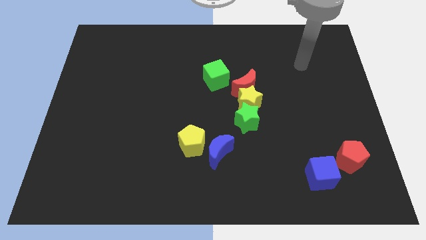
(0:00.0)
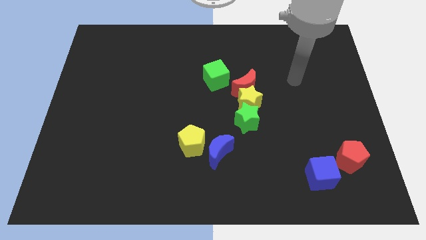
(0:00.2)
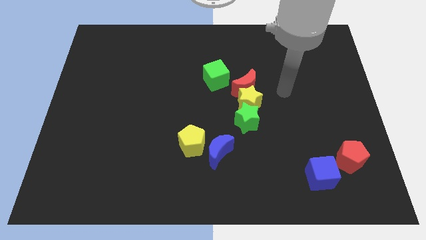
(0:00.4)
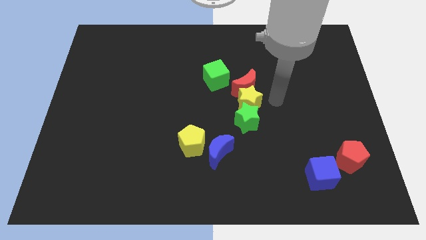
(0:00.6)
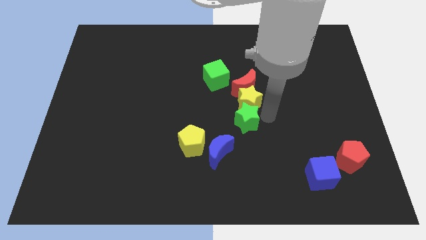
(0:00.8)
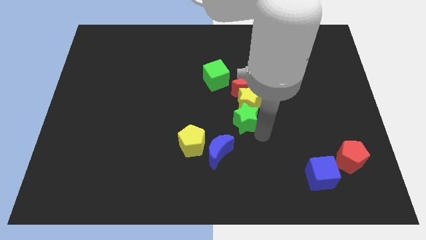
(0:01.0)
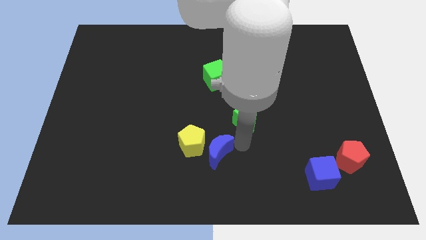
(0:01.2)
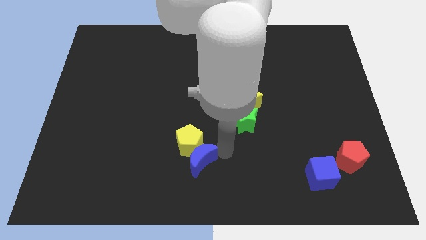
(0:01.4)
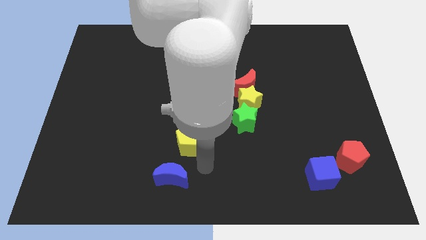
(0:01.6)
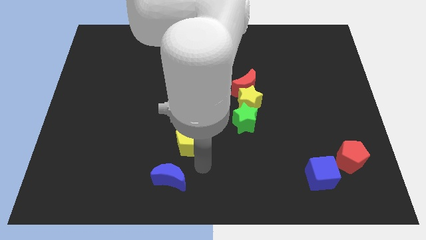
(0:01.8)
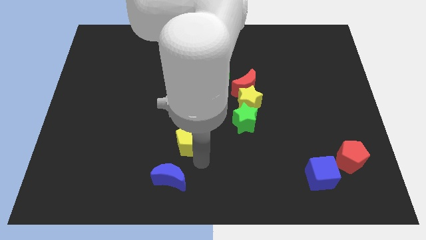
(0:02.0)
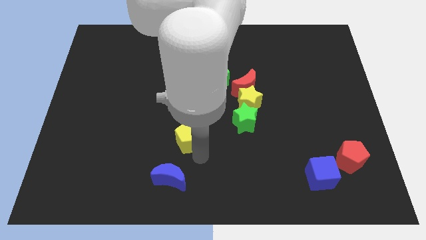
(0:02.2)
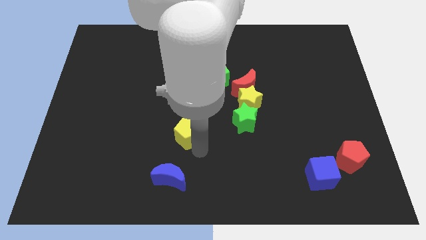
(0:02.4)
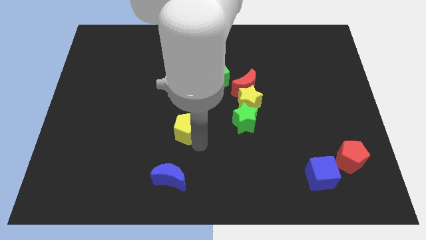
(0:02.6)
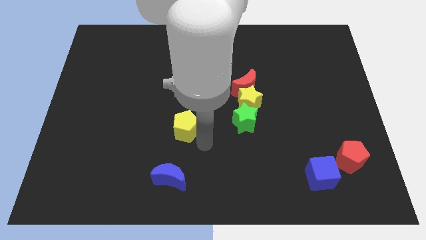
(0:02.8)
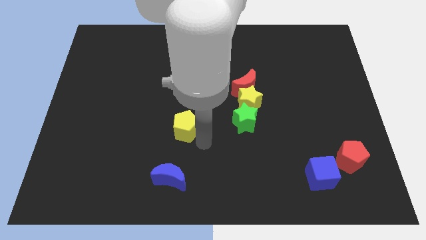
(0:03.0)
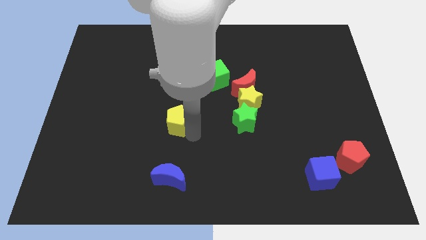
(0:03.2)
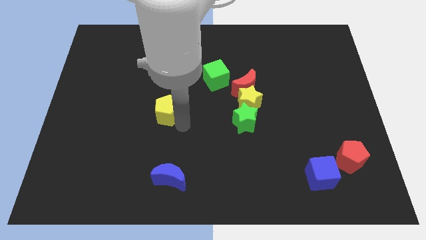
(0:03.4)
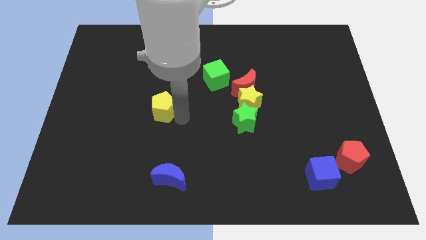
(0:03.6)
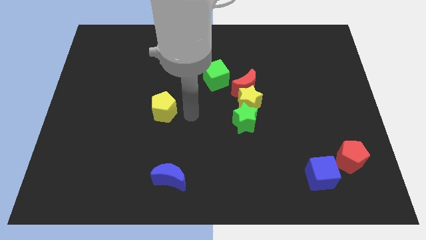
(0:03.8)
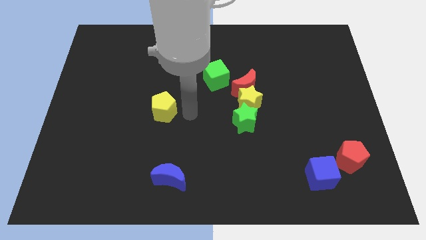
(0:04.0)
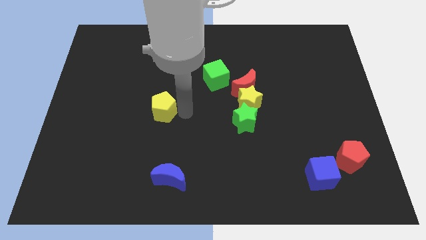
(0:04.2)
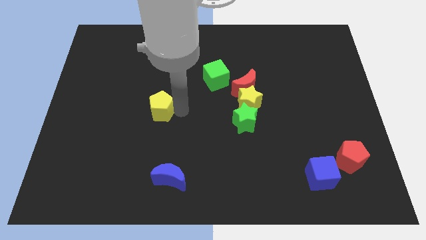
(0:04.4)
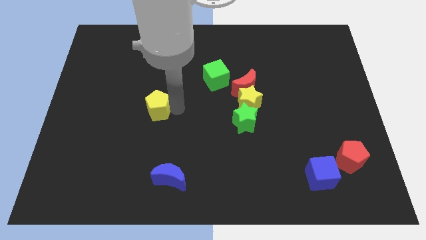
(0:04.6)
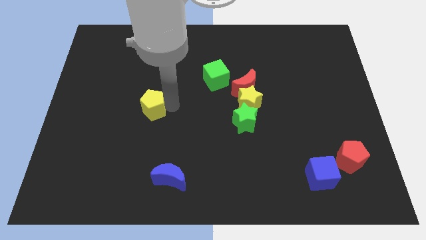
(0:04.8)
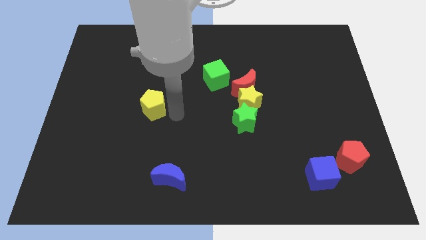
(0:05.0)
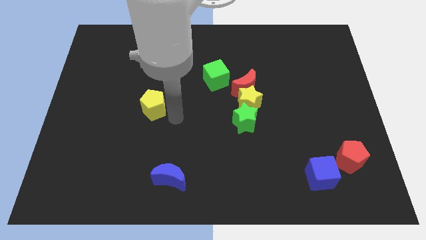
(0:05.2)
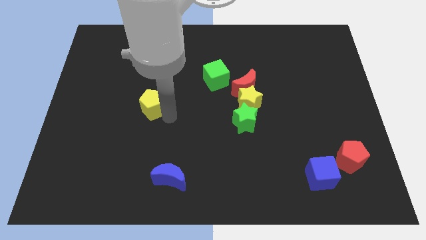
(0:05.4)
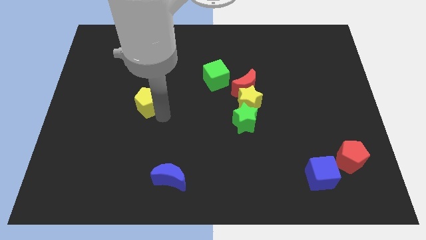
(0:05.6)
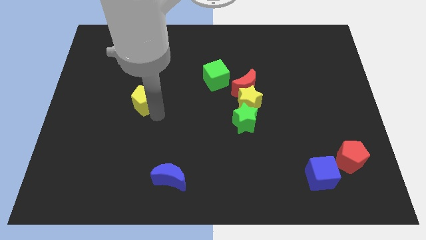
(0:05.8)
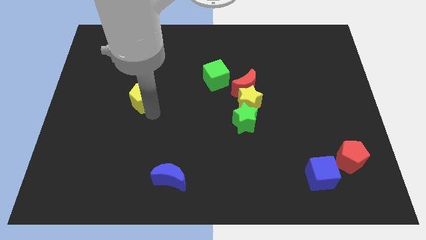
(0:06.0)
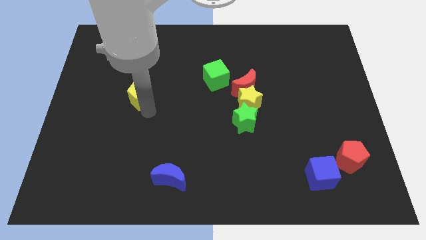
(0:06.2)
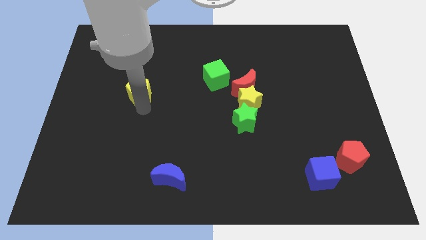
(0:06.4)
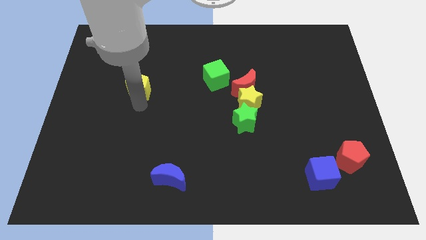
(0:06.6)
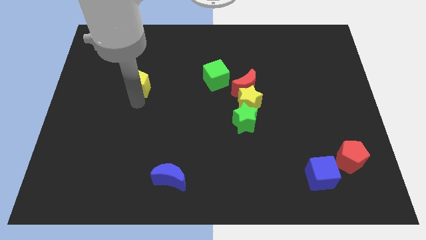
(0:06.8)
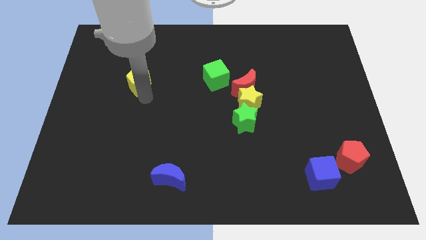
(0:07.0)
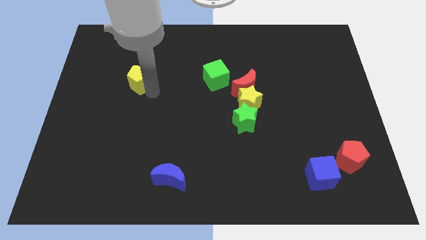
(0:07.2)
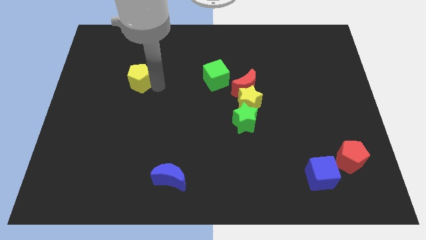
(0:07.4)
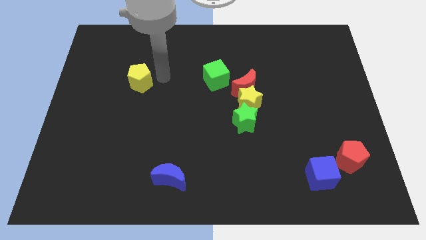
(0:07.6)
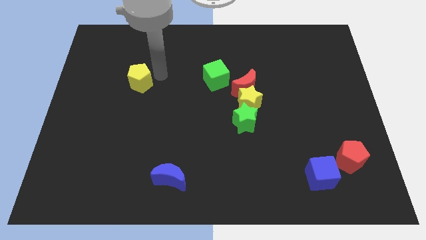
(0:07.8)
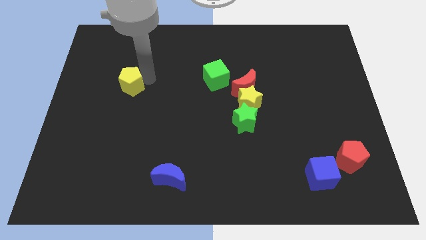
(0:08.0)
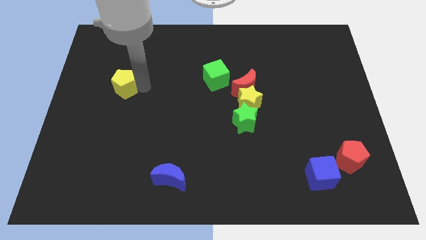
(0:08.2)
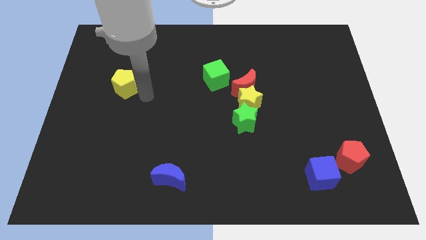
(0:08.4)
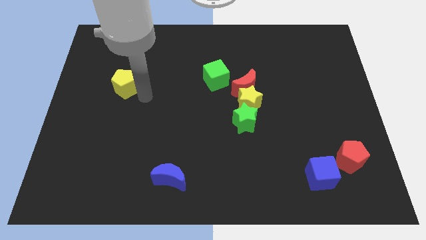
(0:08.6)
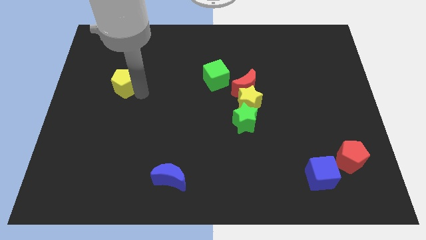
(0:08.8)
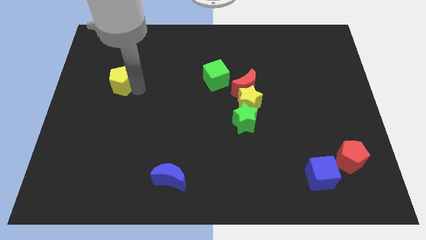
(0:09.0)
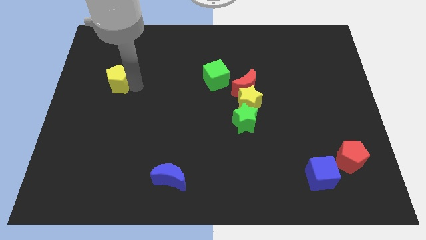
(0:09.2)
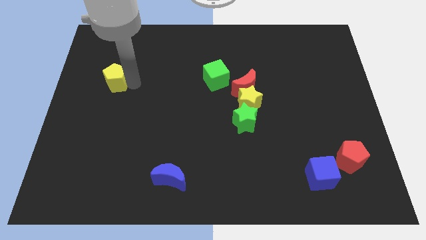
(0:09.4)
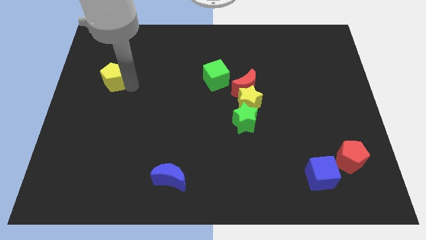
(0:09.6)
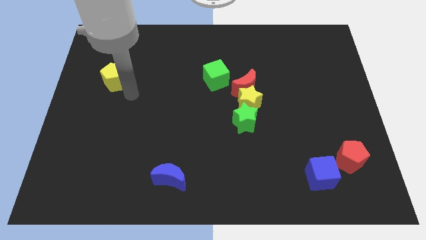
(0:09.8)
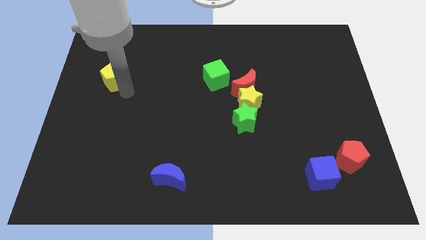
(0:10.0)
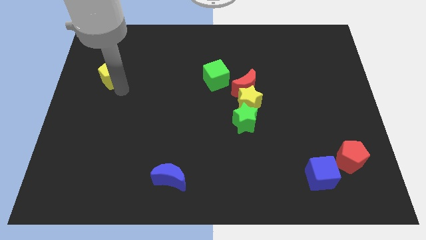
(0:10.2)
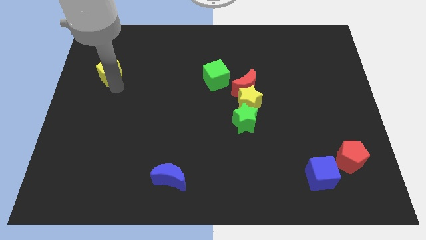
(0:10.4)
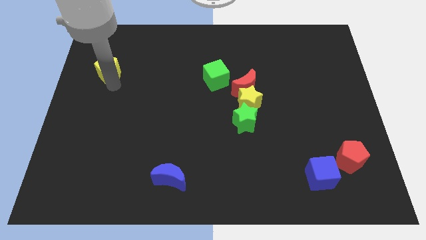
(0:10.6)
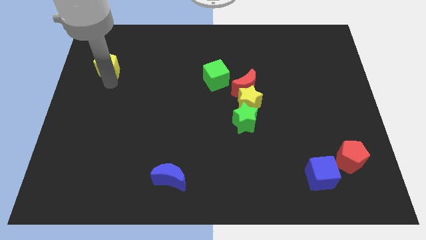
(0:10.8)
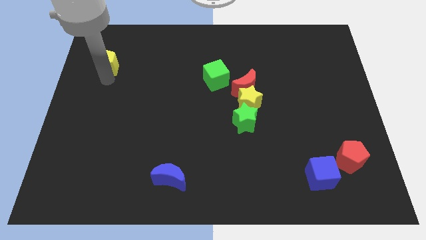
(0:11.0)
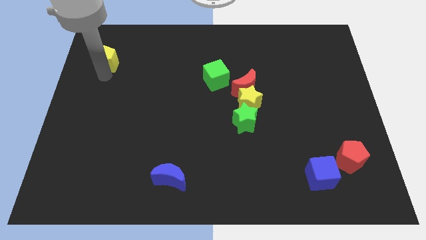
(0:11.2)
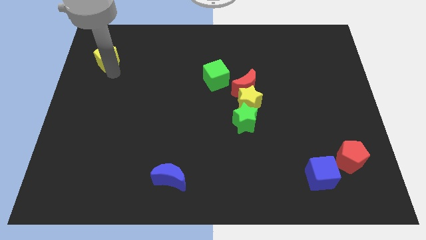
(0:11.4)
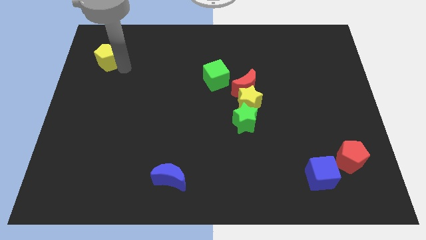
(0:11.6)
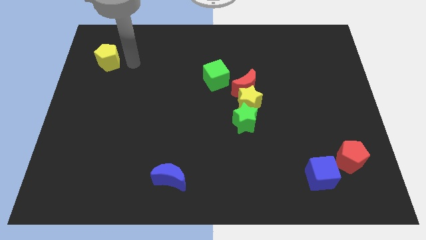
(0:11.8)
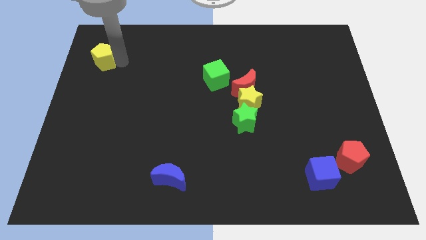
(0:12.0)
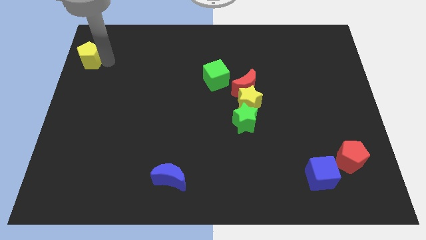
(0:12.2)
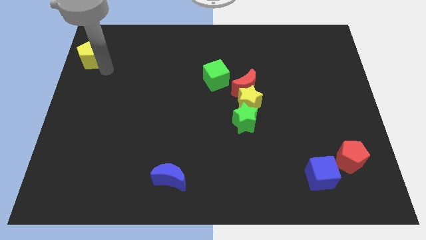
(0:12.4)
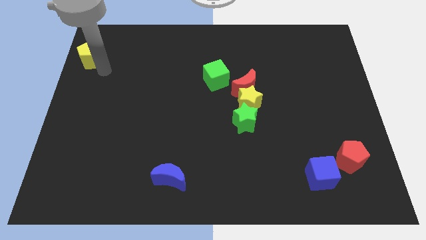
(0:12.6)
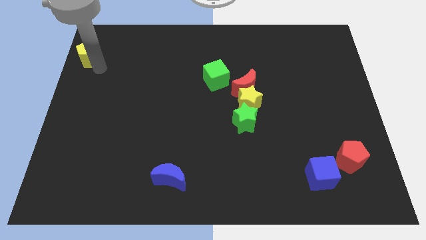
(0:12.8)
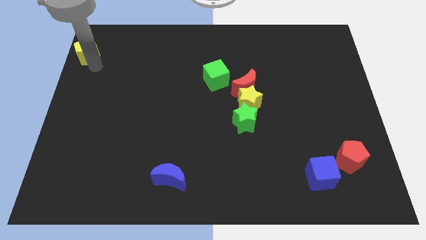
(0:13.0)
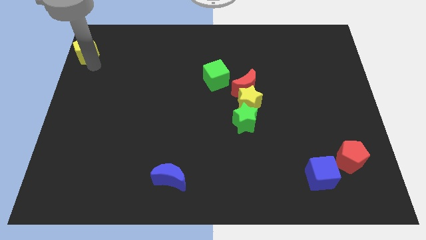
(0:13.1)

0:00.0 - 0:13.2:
push the yellow pentagon to the top left corner
